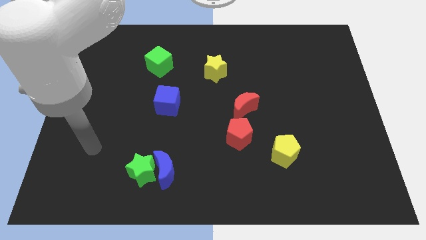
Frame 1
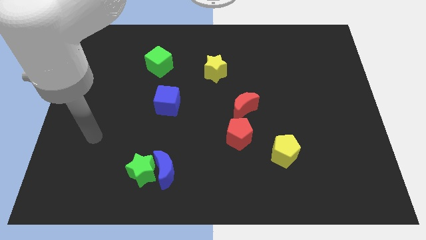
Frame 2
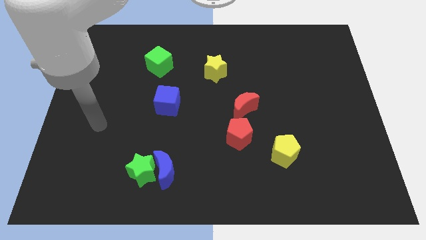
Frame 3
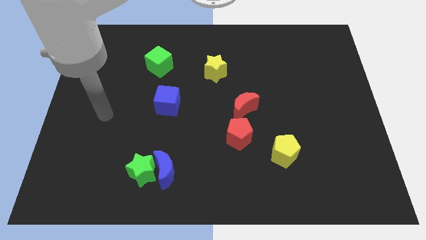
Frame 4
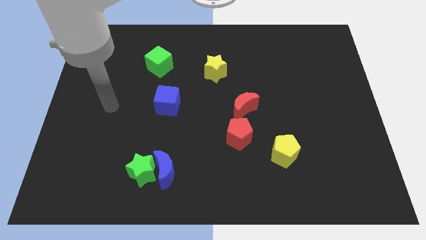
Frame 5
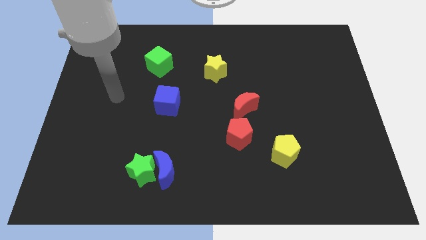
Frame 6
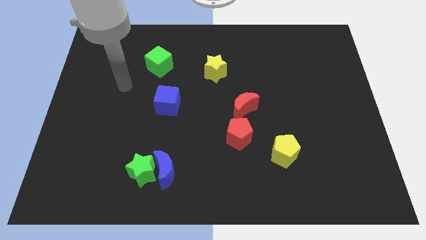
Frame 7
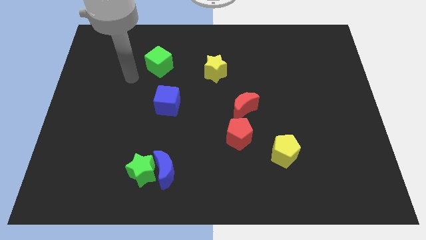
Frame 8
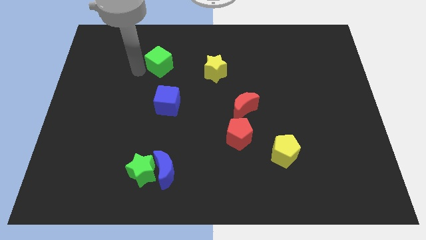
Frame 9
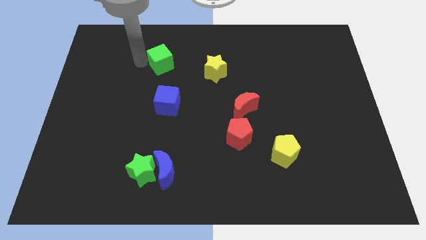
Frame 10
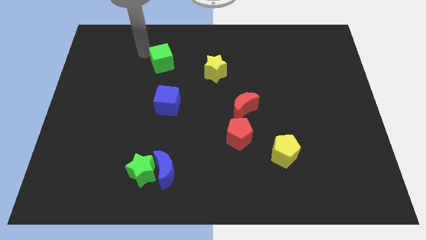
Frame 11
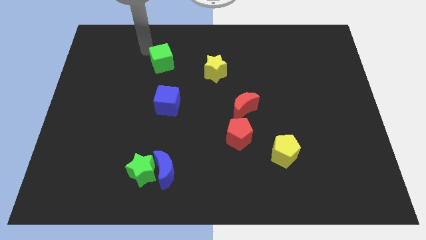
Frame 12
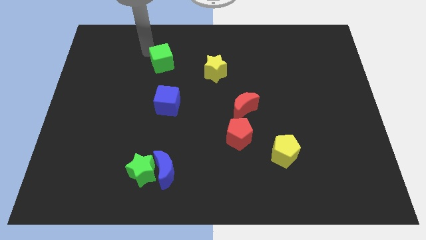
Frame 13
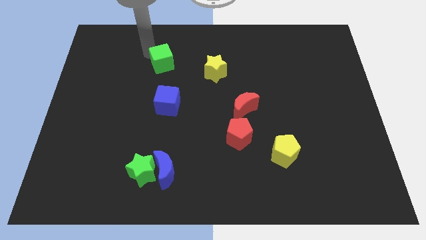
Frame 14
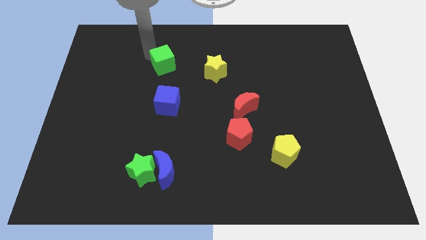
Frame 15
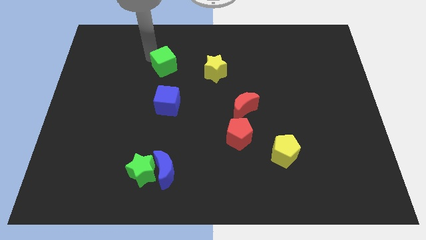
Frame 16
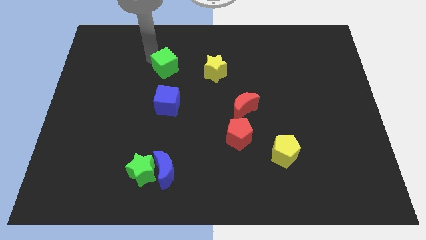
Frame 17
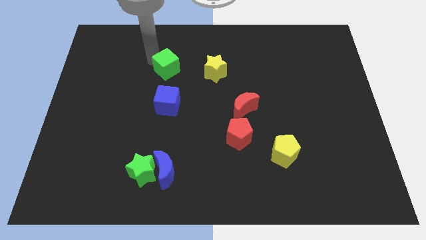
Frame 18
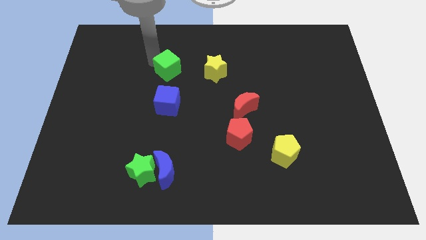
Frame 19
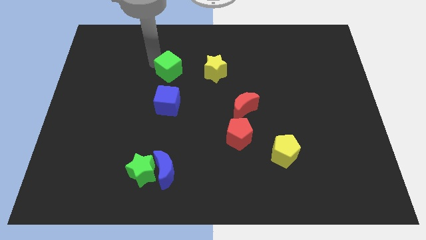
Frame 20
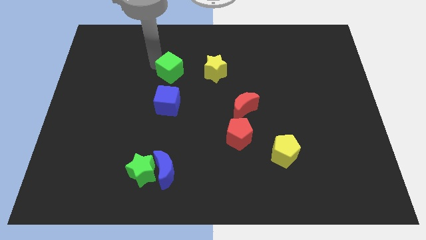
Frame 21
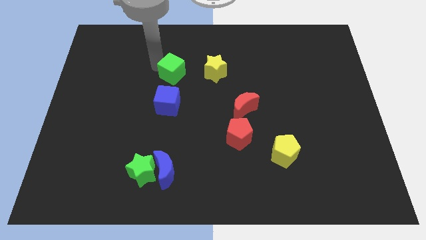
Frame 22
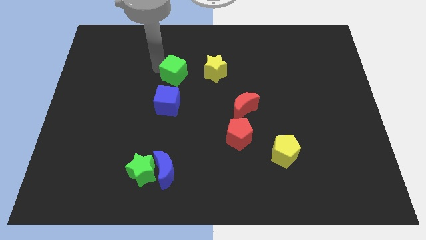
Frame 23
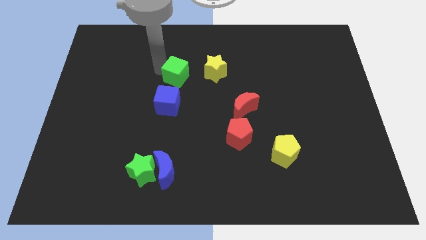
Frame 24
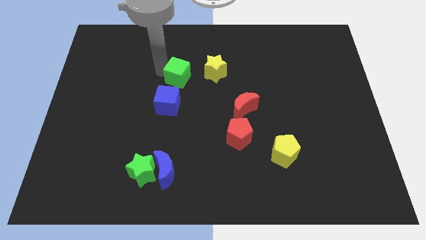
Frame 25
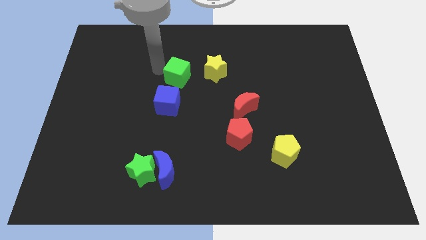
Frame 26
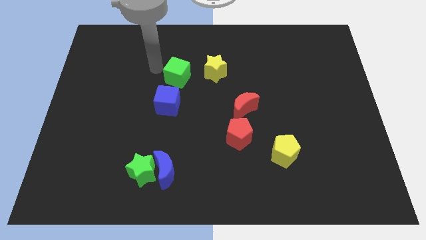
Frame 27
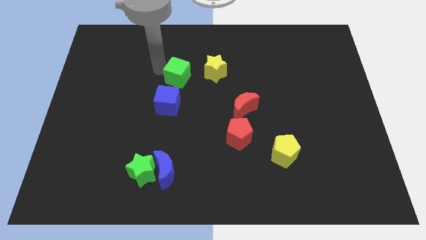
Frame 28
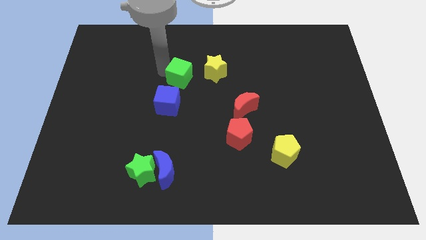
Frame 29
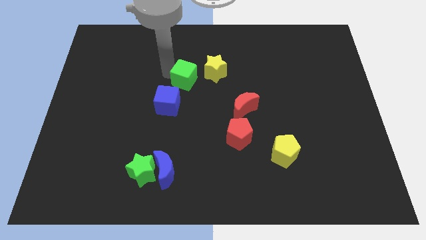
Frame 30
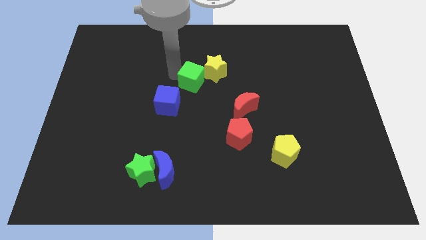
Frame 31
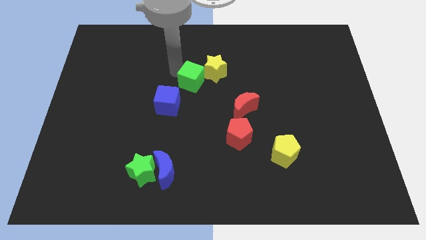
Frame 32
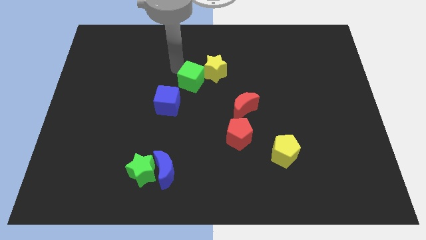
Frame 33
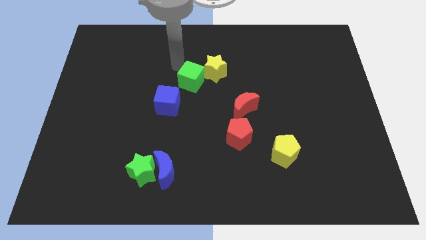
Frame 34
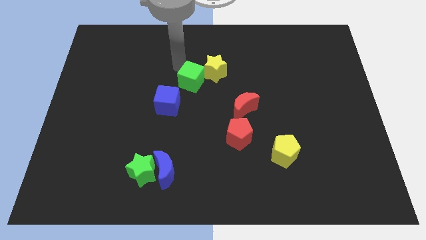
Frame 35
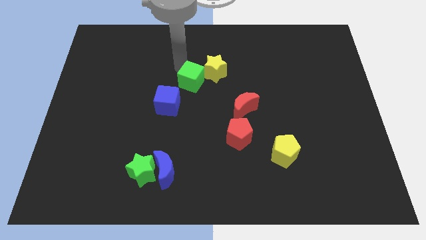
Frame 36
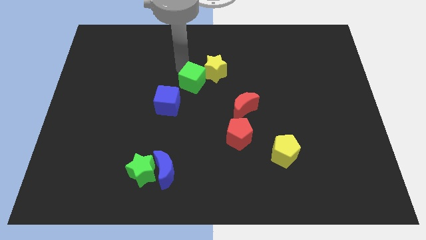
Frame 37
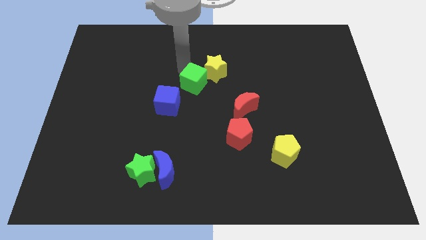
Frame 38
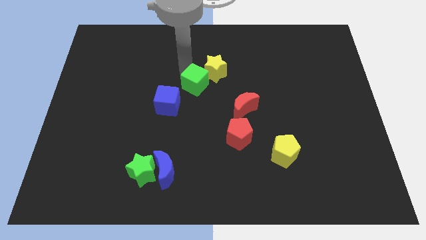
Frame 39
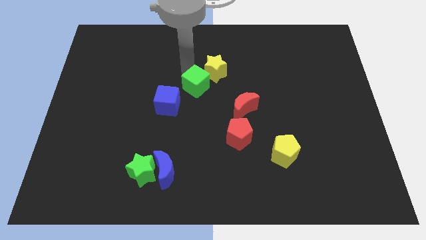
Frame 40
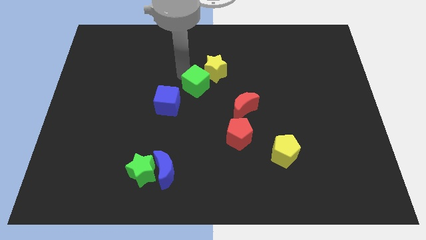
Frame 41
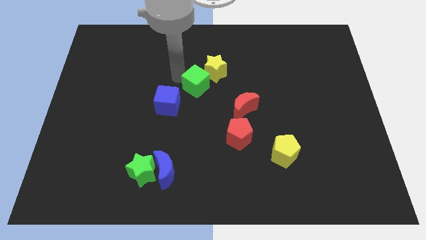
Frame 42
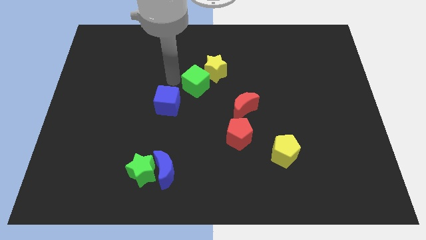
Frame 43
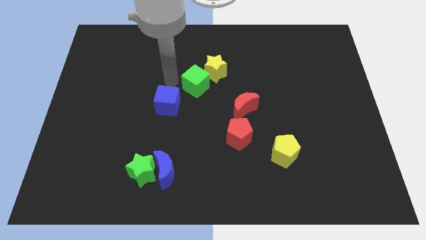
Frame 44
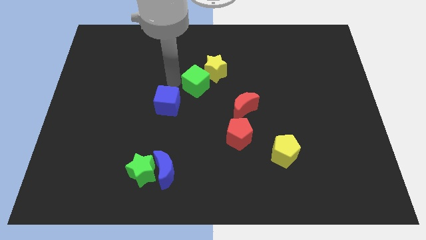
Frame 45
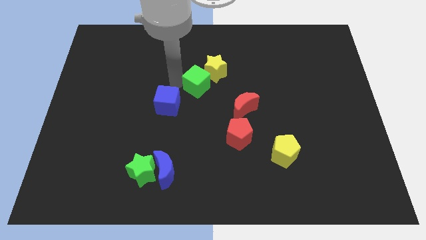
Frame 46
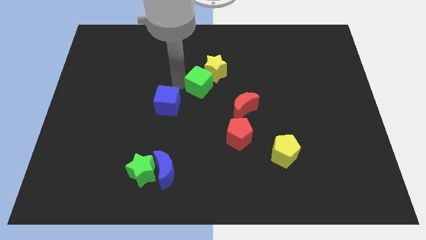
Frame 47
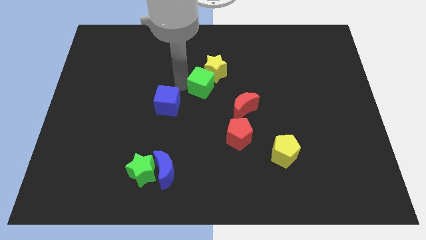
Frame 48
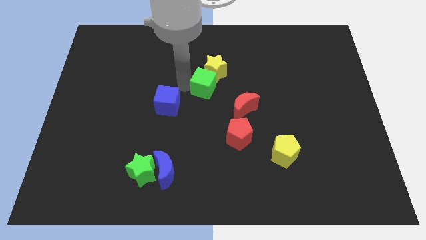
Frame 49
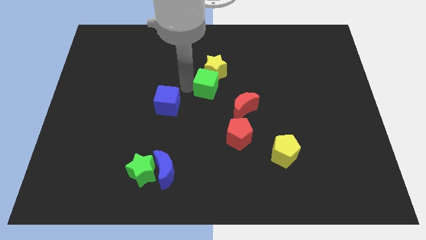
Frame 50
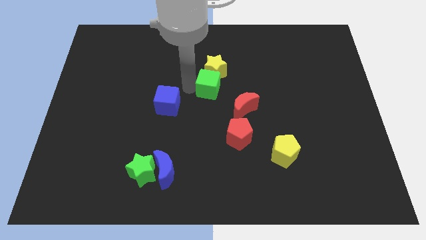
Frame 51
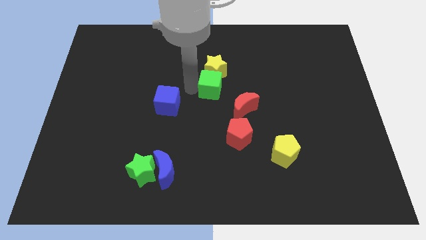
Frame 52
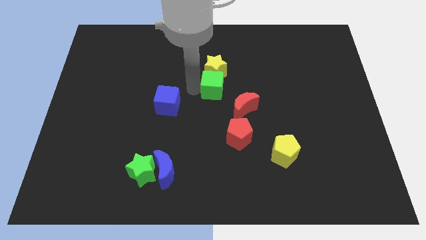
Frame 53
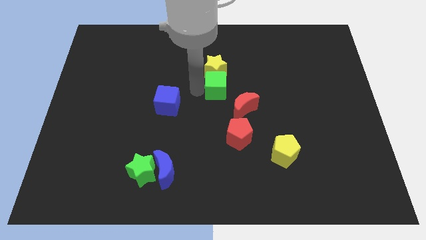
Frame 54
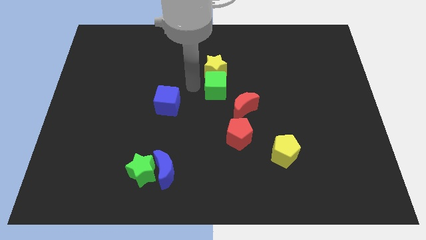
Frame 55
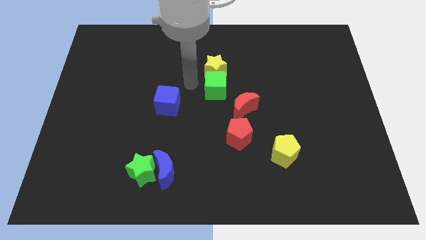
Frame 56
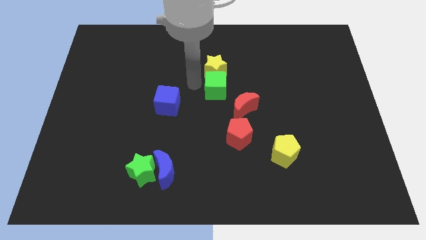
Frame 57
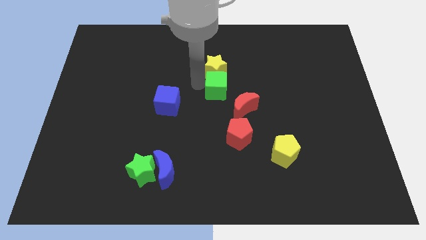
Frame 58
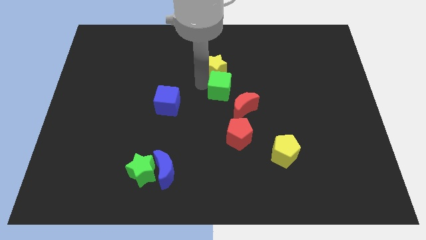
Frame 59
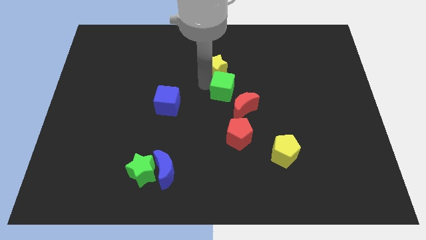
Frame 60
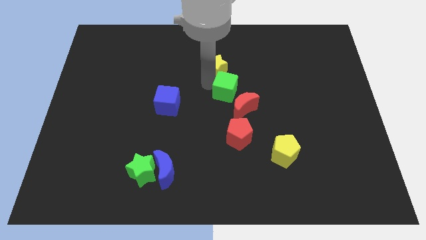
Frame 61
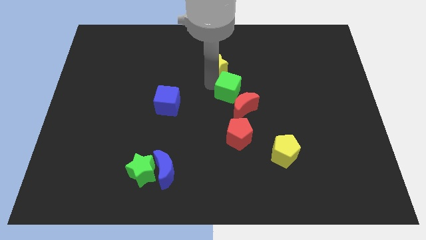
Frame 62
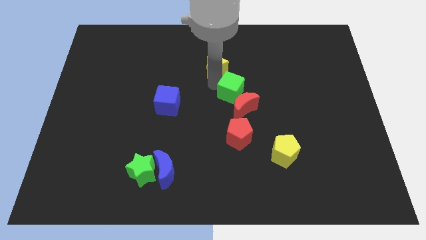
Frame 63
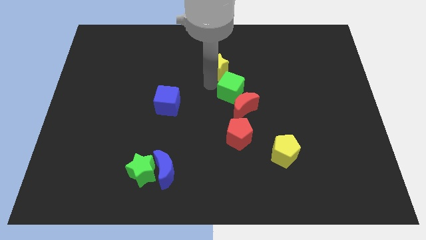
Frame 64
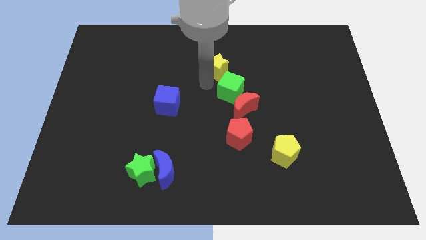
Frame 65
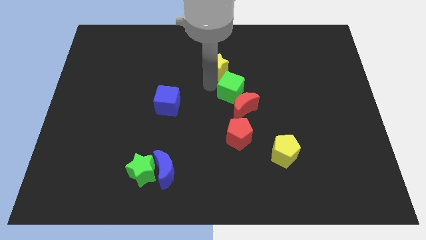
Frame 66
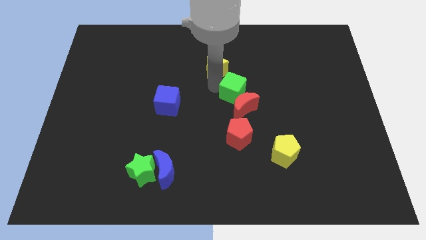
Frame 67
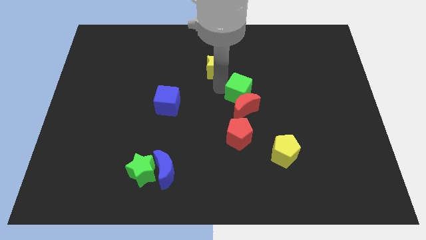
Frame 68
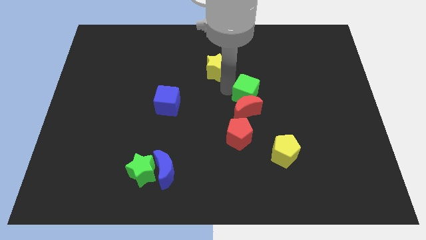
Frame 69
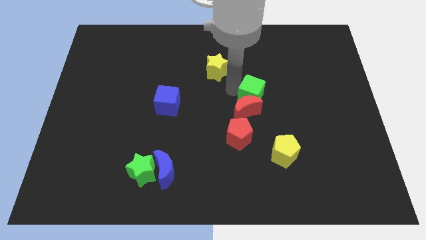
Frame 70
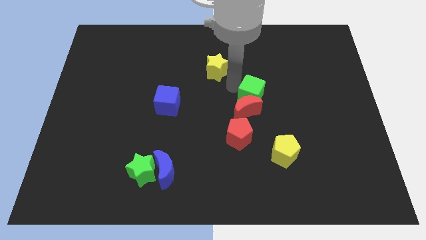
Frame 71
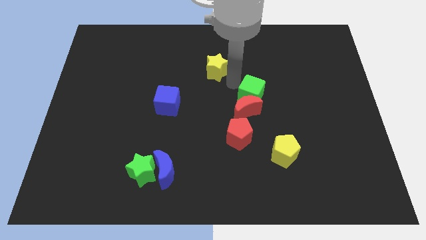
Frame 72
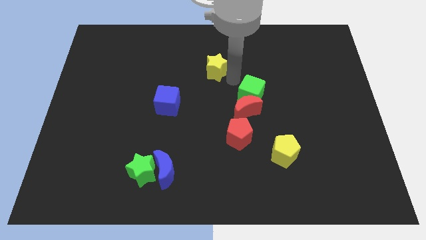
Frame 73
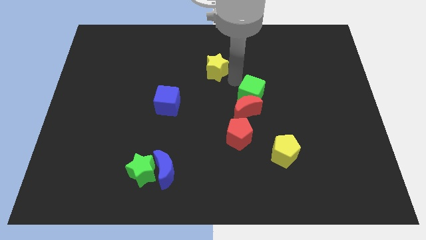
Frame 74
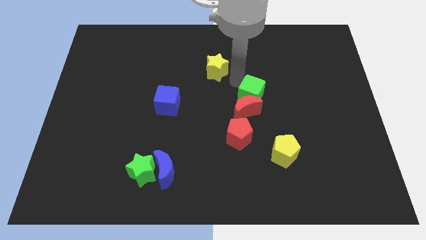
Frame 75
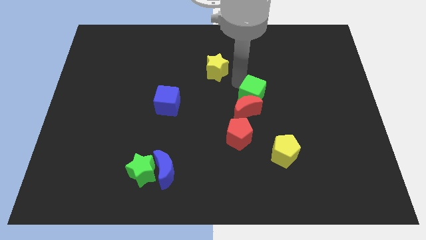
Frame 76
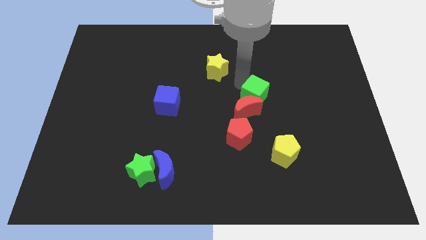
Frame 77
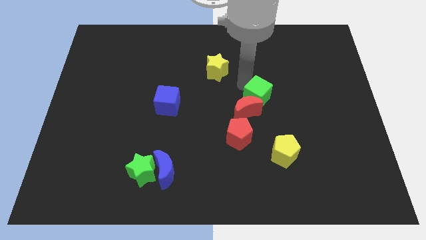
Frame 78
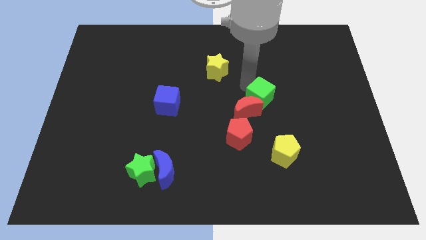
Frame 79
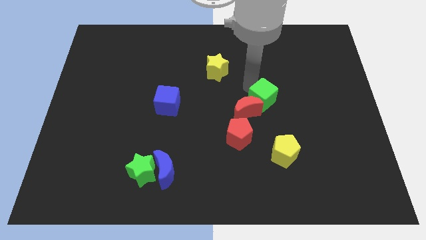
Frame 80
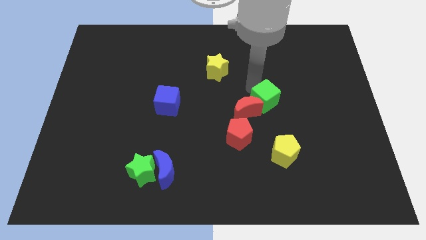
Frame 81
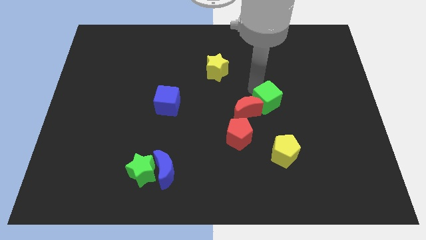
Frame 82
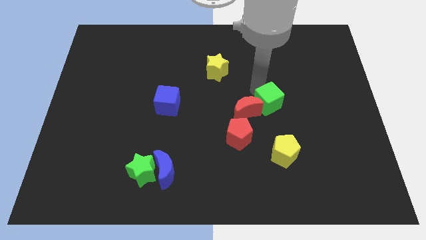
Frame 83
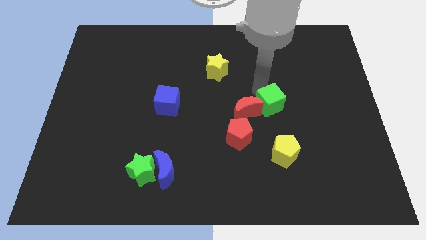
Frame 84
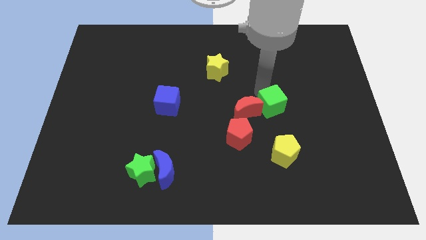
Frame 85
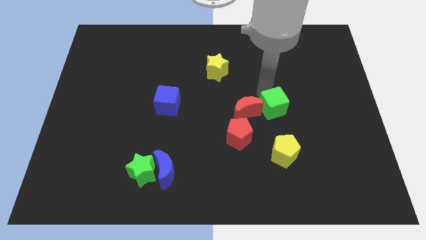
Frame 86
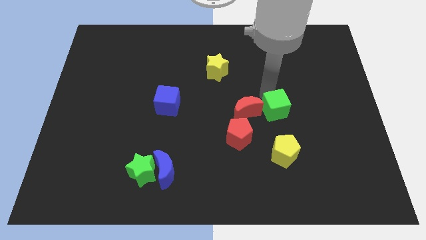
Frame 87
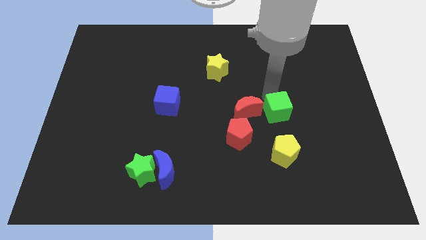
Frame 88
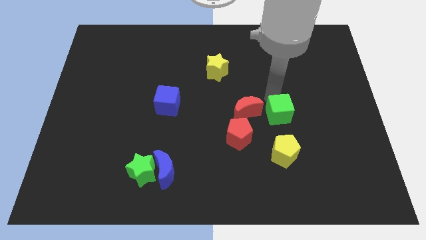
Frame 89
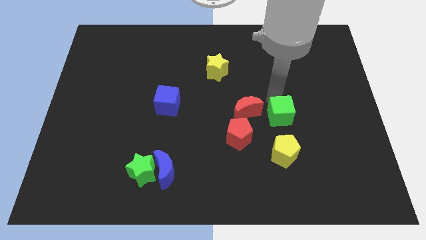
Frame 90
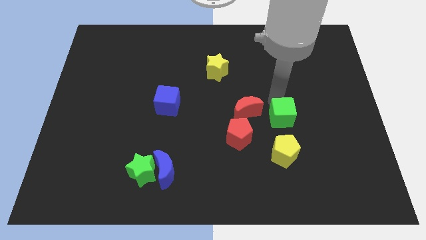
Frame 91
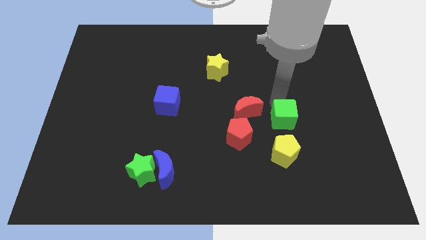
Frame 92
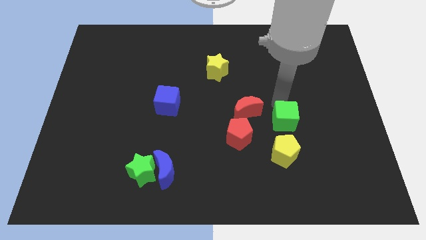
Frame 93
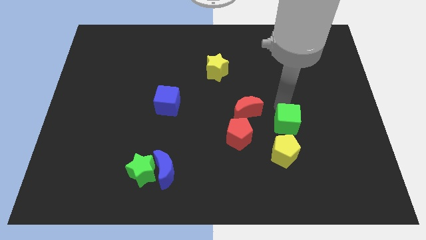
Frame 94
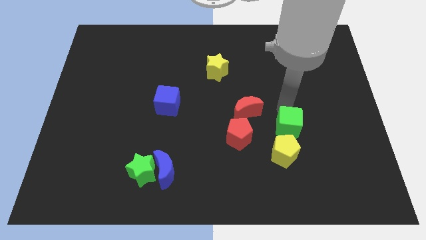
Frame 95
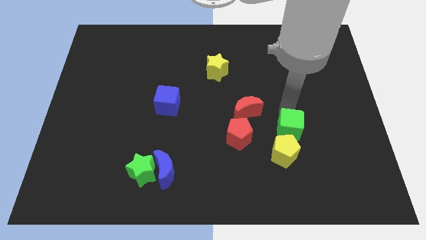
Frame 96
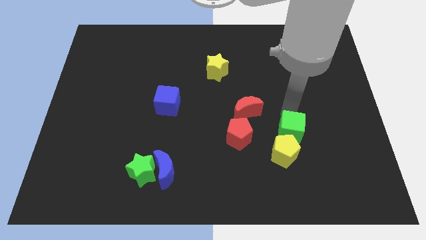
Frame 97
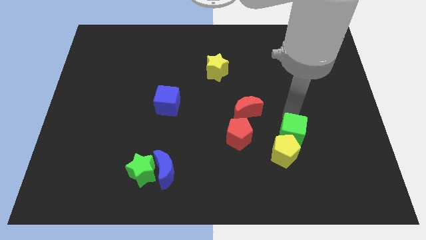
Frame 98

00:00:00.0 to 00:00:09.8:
put the green cube towards the yellow pentagon
